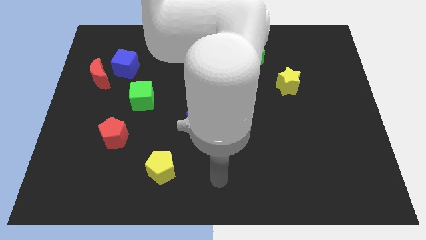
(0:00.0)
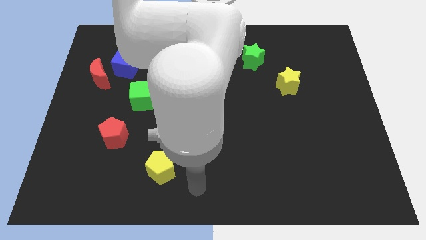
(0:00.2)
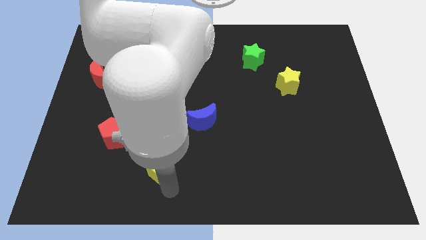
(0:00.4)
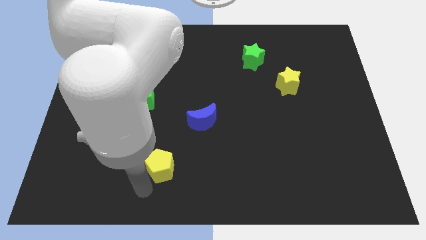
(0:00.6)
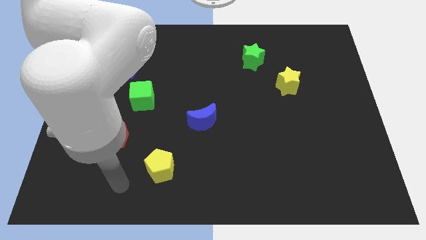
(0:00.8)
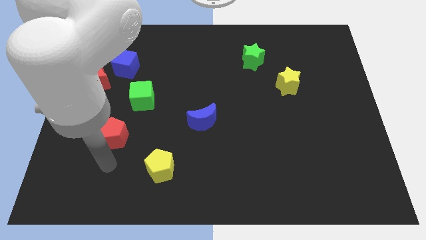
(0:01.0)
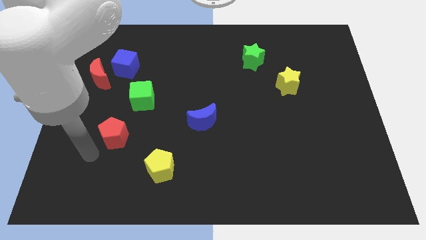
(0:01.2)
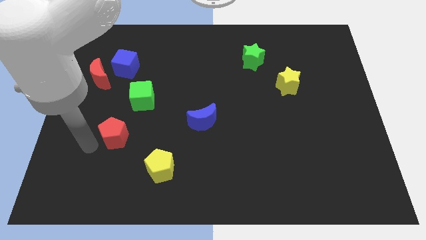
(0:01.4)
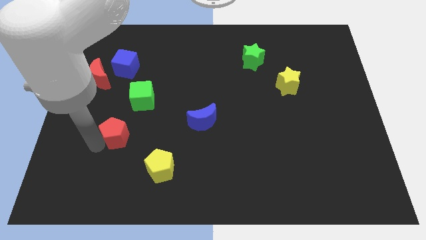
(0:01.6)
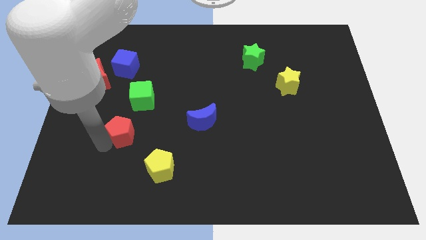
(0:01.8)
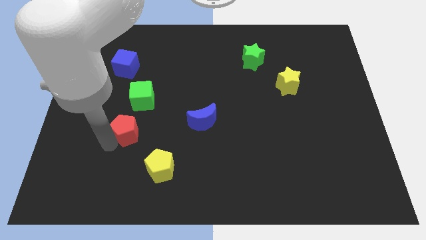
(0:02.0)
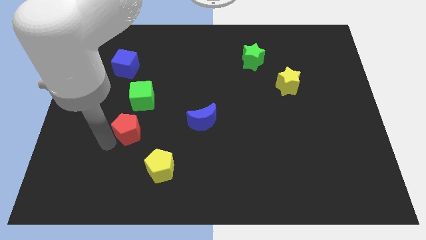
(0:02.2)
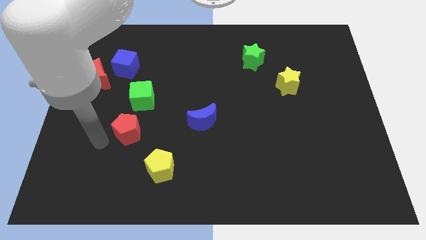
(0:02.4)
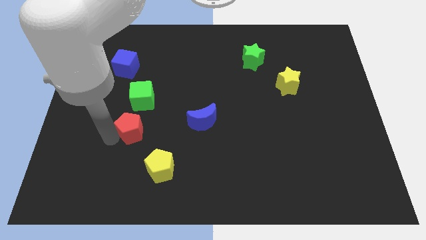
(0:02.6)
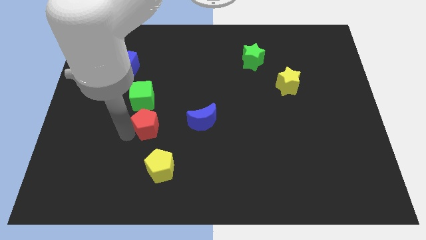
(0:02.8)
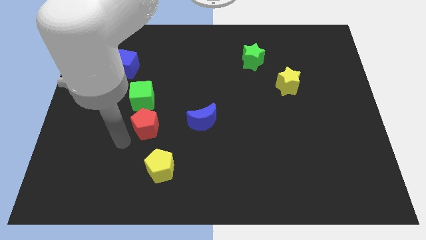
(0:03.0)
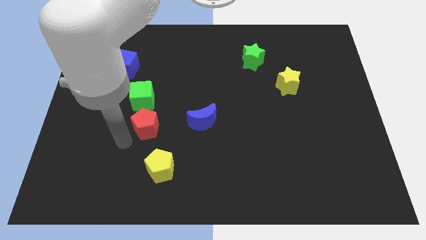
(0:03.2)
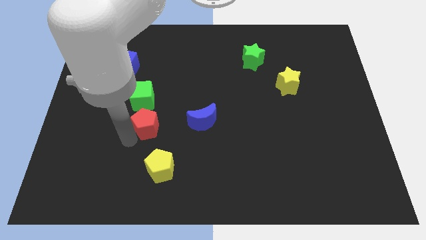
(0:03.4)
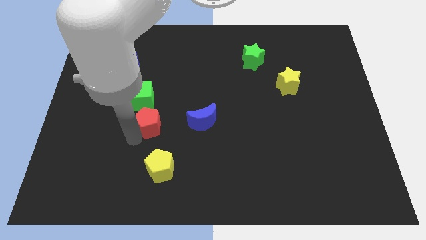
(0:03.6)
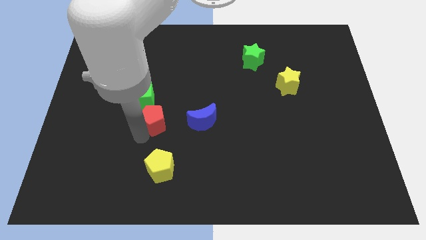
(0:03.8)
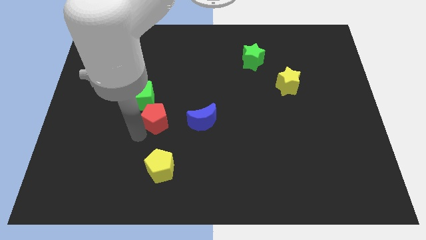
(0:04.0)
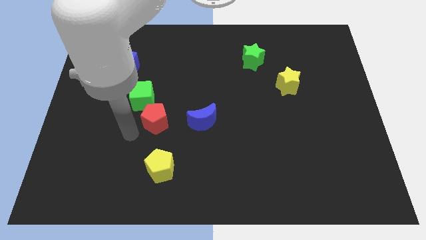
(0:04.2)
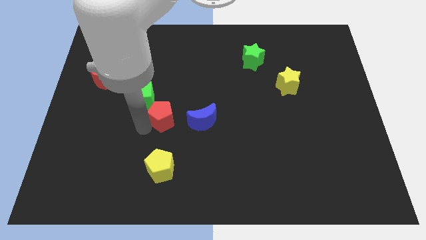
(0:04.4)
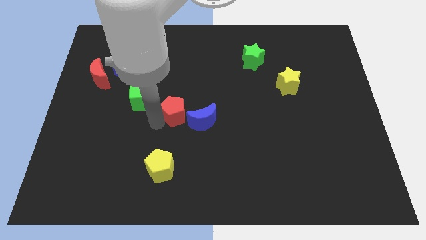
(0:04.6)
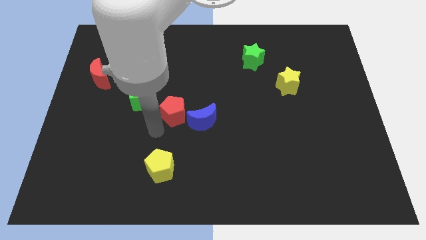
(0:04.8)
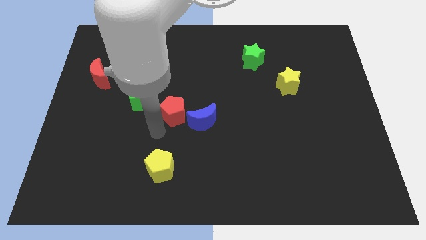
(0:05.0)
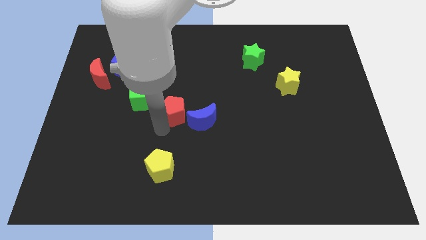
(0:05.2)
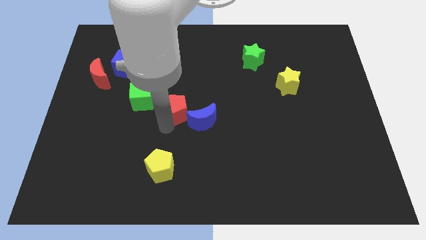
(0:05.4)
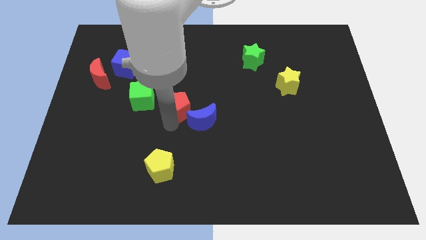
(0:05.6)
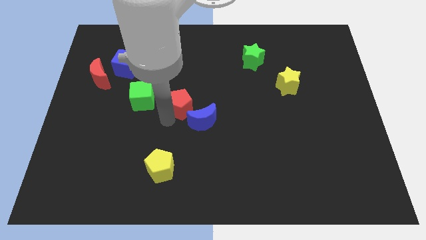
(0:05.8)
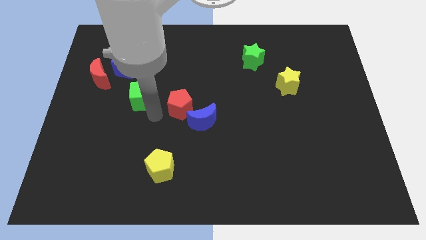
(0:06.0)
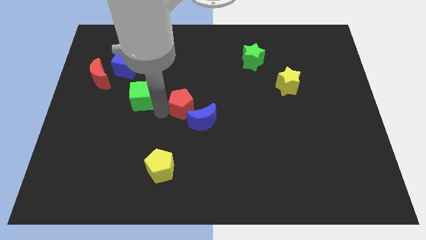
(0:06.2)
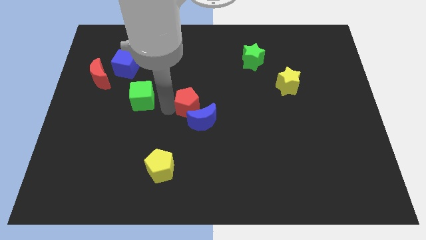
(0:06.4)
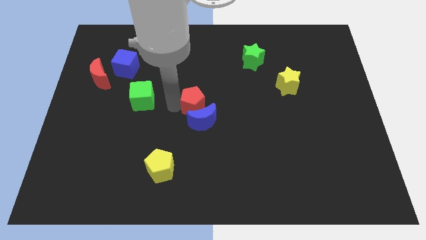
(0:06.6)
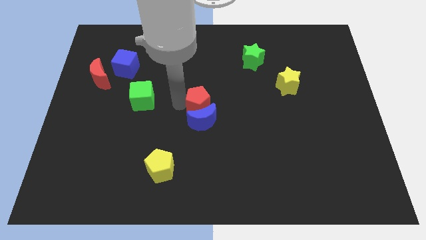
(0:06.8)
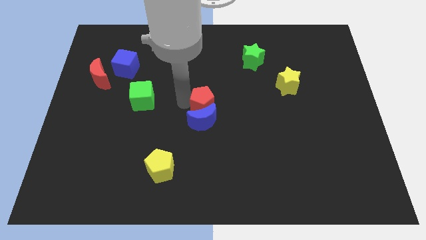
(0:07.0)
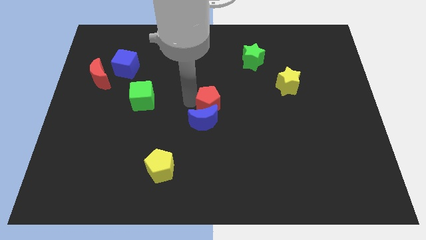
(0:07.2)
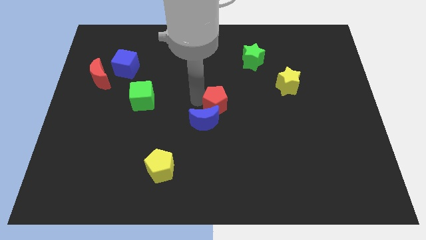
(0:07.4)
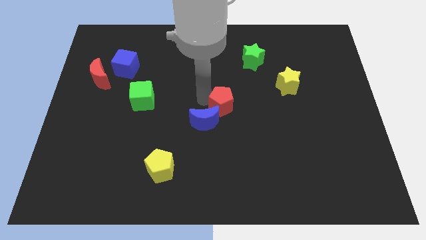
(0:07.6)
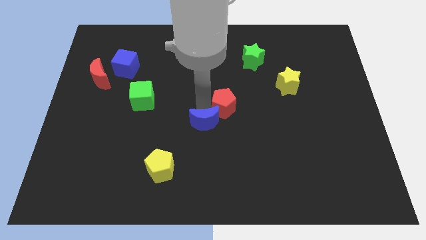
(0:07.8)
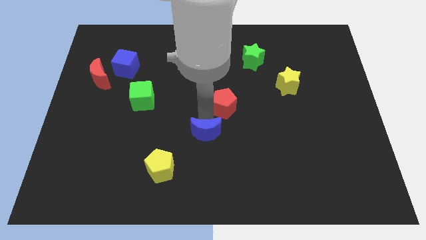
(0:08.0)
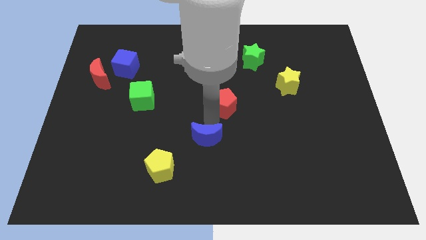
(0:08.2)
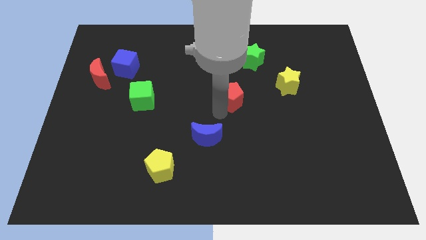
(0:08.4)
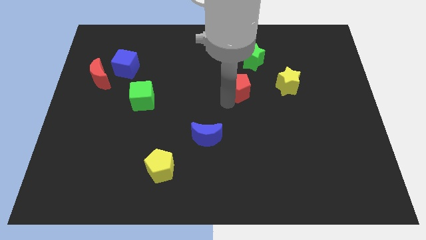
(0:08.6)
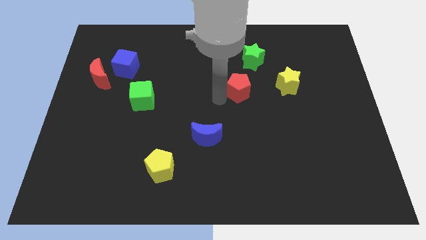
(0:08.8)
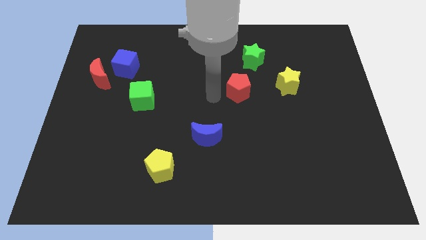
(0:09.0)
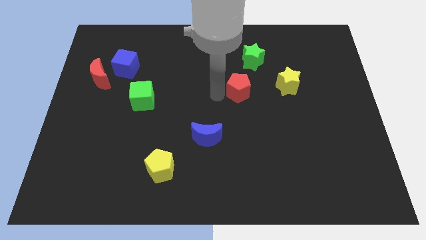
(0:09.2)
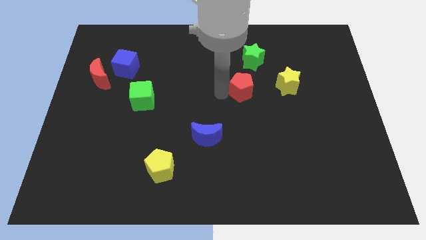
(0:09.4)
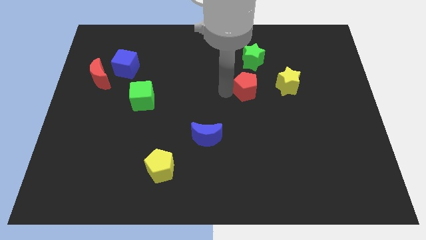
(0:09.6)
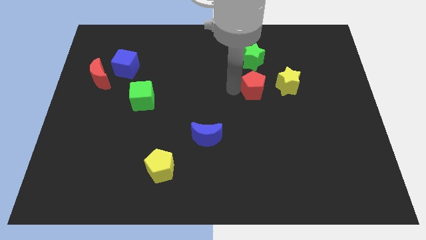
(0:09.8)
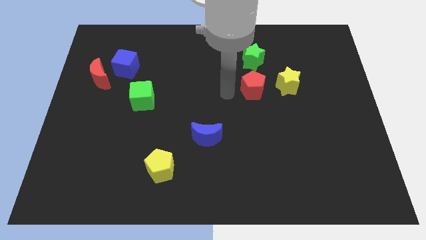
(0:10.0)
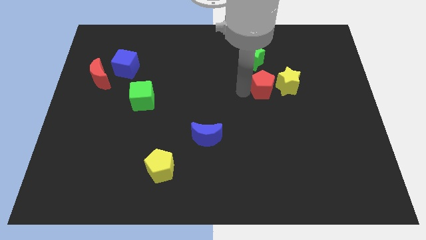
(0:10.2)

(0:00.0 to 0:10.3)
slide the red pentagon to the yellow star

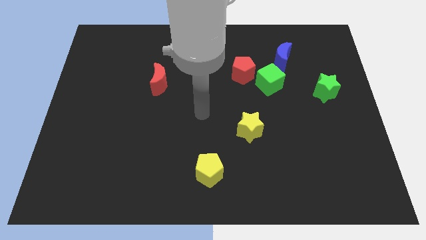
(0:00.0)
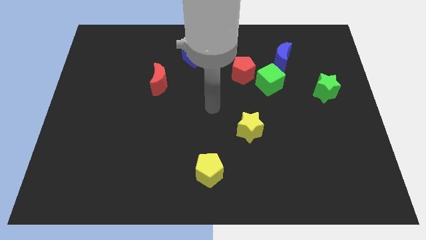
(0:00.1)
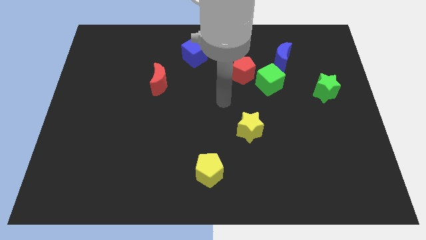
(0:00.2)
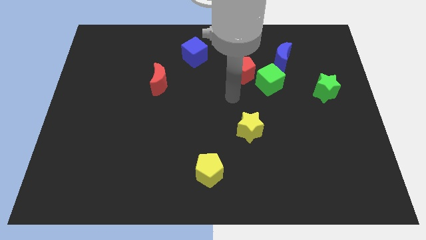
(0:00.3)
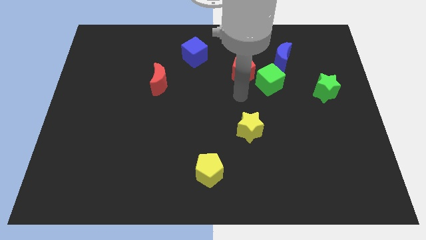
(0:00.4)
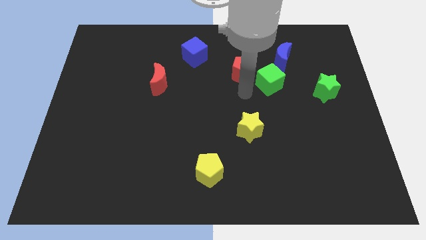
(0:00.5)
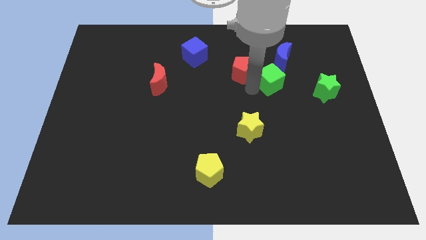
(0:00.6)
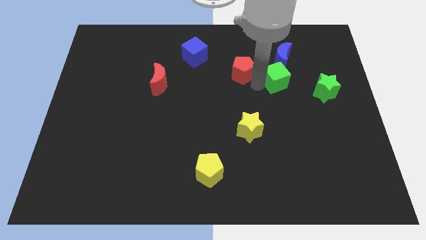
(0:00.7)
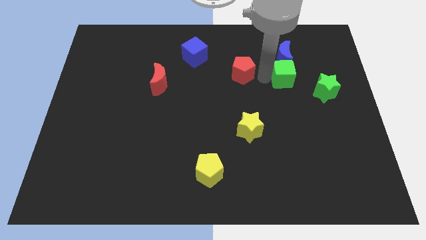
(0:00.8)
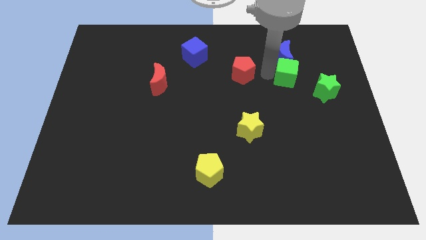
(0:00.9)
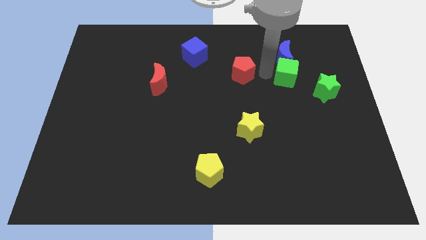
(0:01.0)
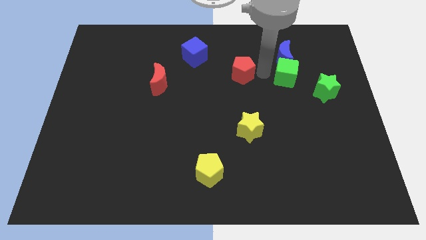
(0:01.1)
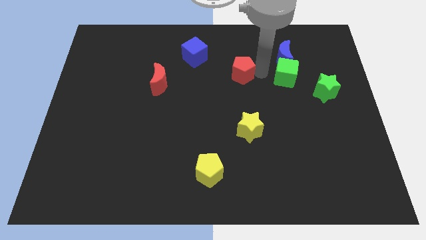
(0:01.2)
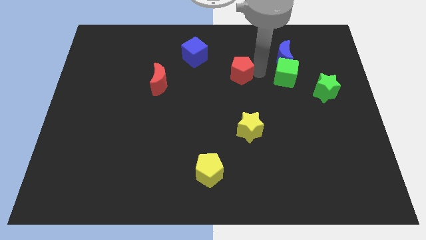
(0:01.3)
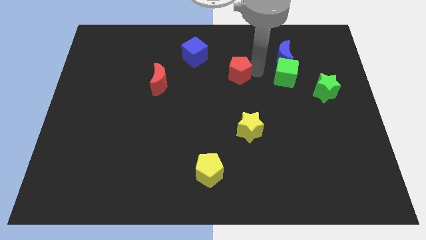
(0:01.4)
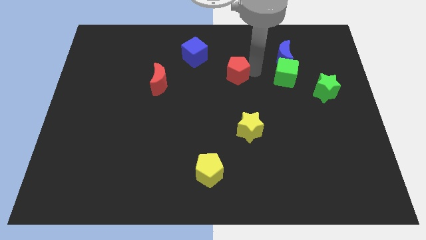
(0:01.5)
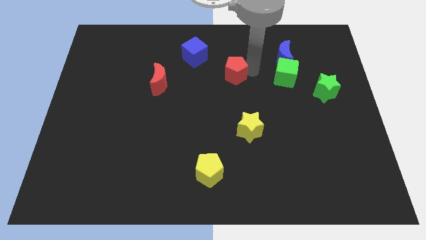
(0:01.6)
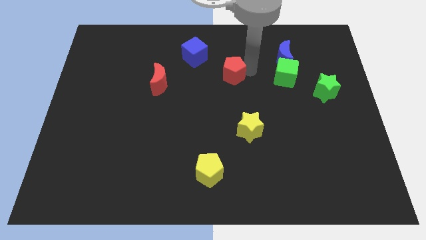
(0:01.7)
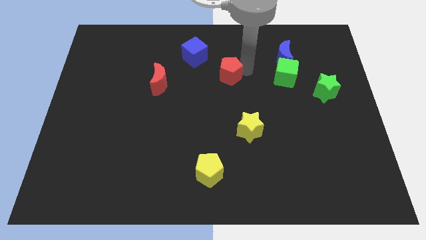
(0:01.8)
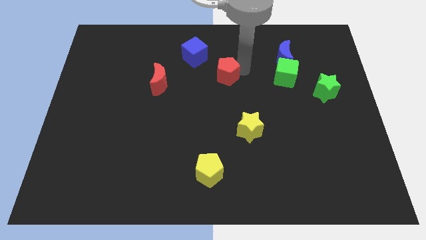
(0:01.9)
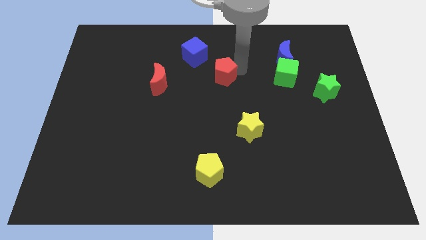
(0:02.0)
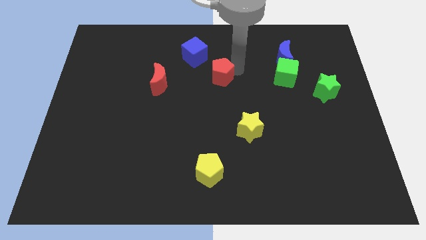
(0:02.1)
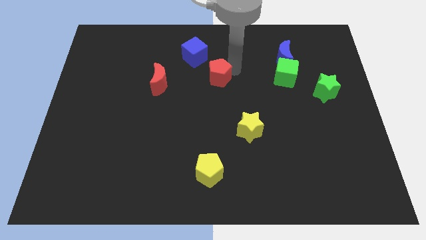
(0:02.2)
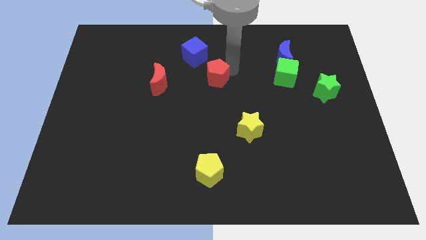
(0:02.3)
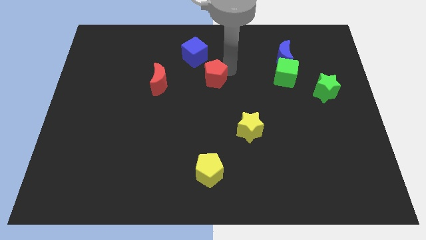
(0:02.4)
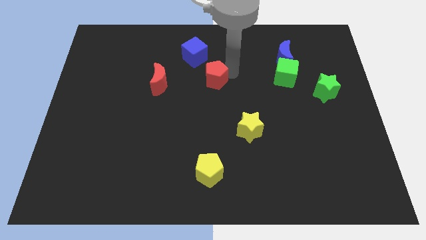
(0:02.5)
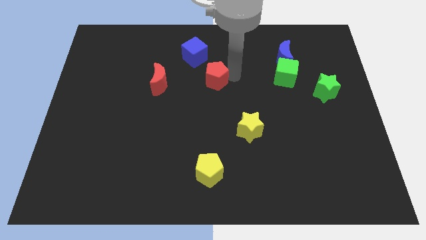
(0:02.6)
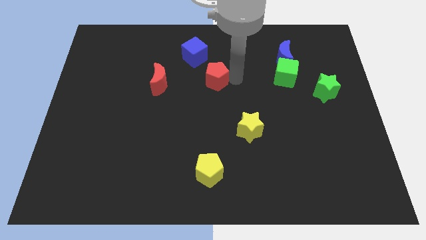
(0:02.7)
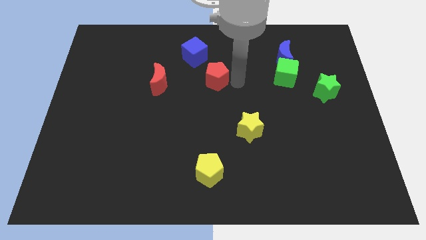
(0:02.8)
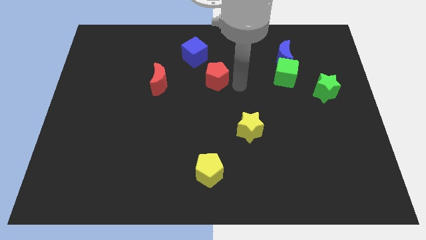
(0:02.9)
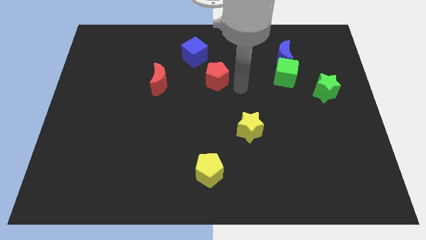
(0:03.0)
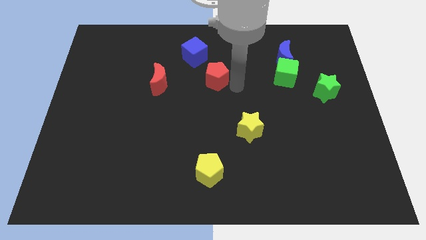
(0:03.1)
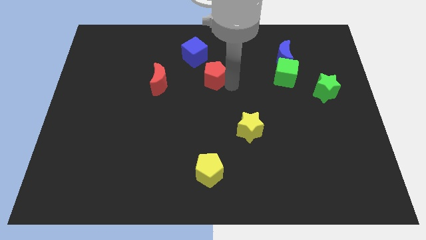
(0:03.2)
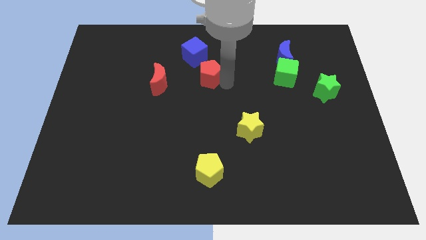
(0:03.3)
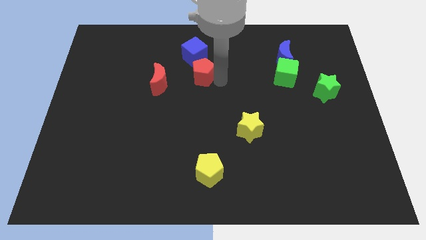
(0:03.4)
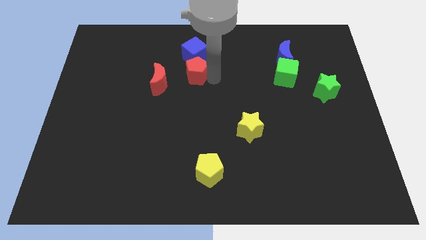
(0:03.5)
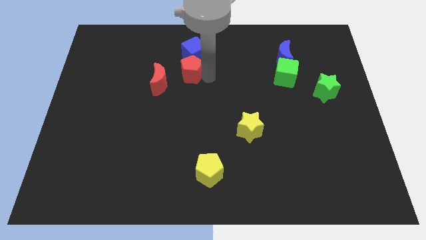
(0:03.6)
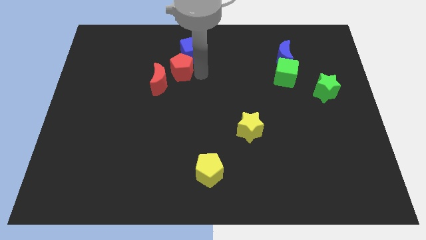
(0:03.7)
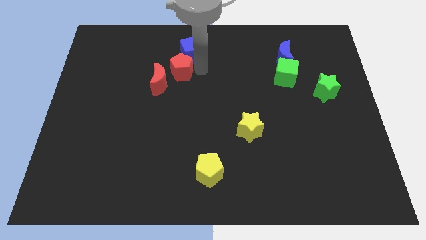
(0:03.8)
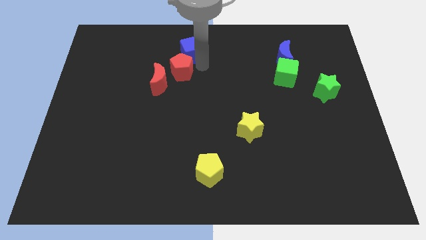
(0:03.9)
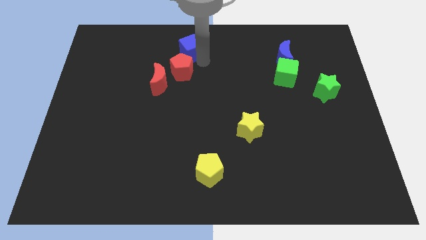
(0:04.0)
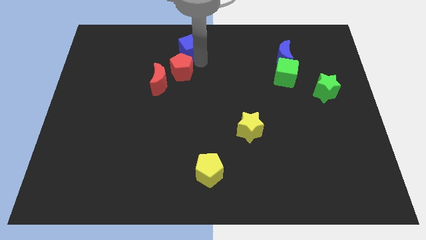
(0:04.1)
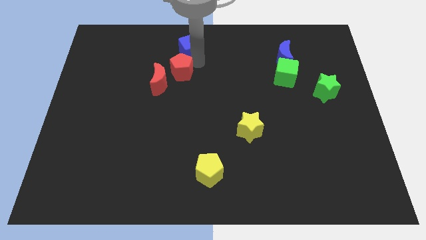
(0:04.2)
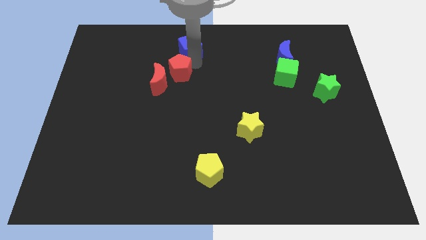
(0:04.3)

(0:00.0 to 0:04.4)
push the red pentagon to the red moon
